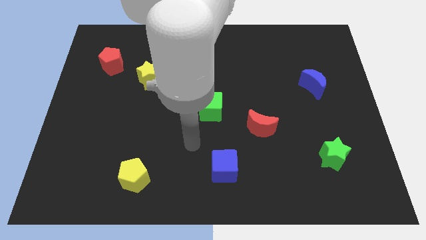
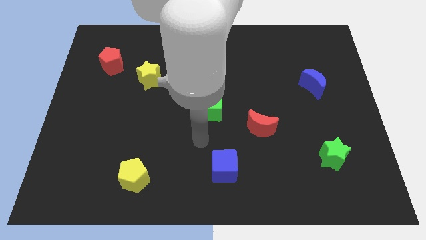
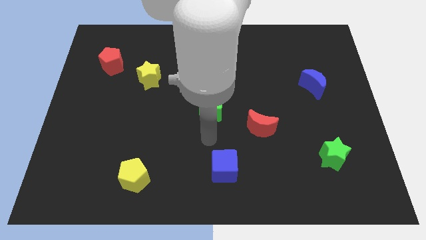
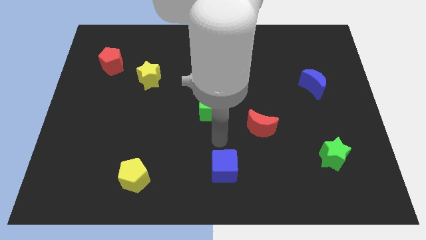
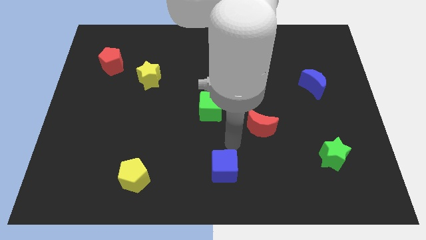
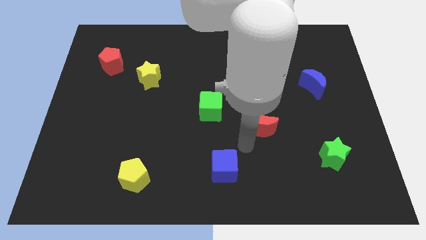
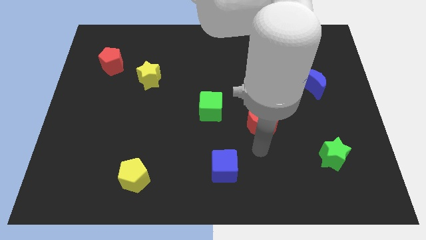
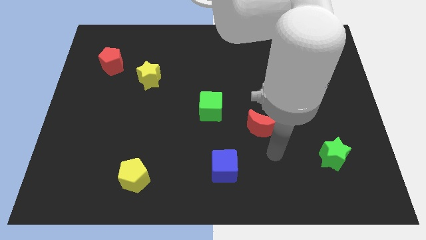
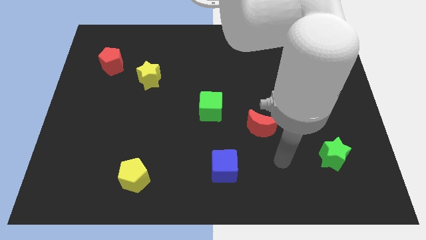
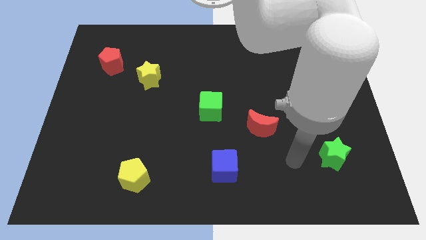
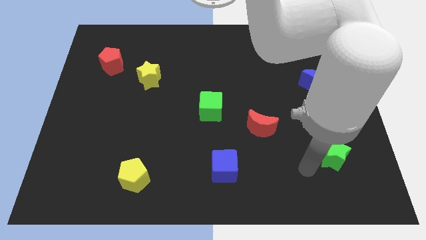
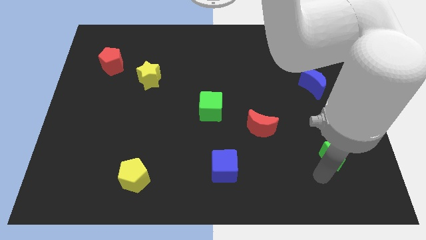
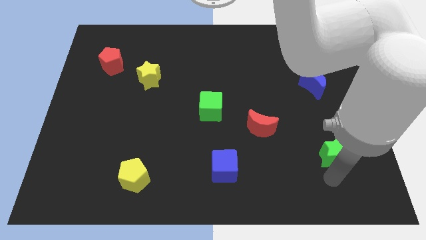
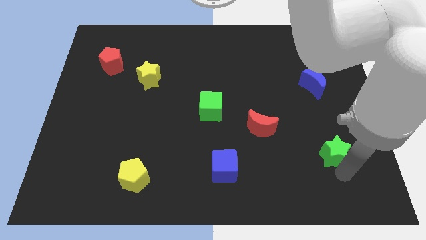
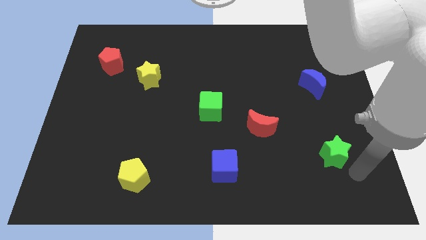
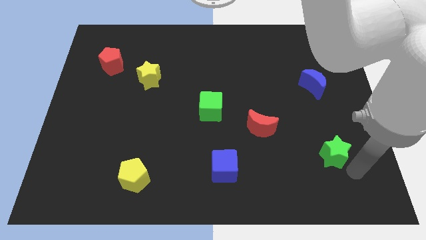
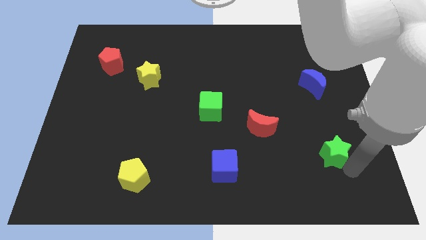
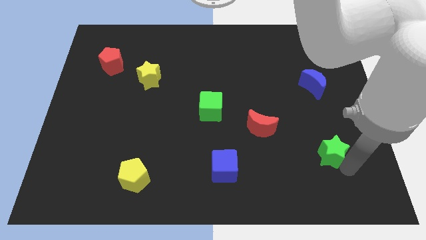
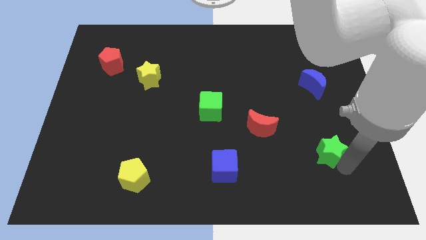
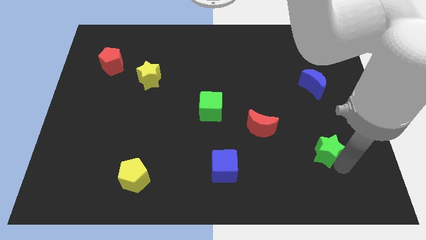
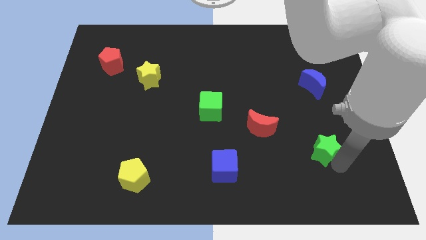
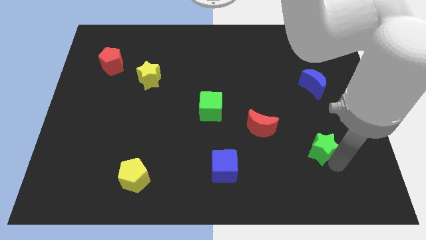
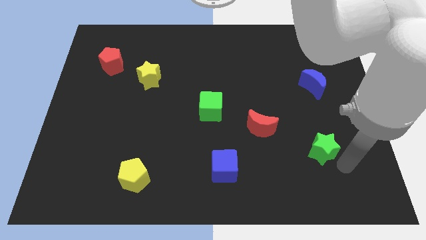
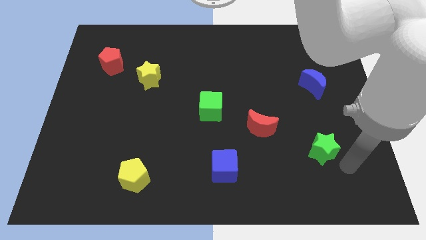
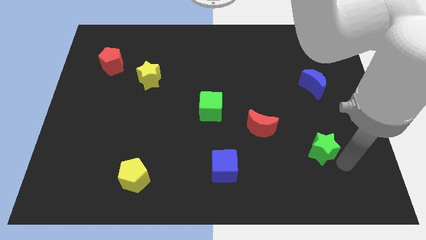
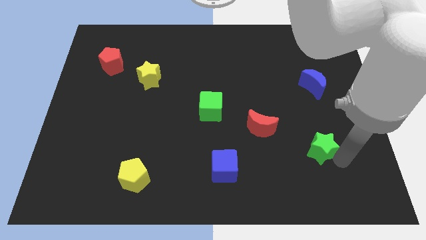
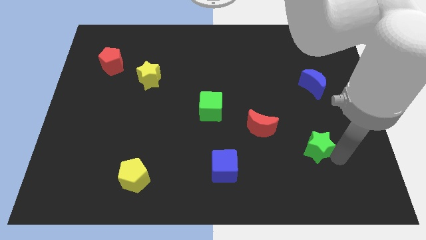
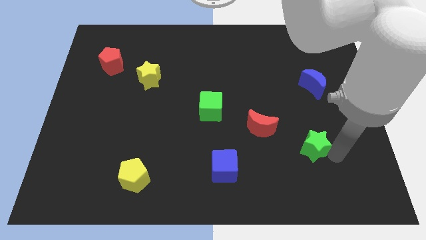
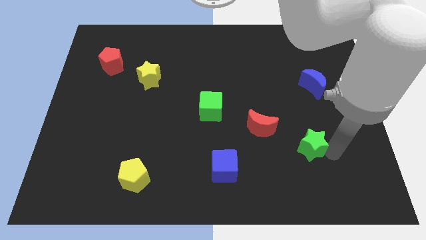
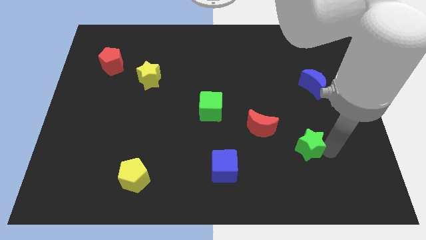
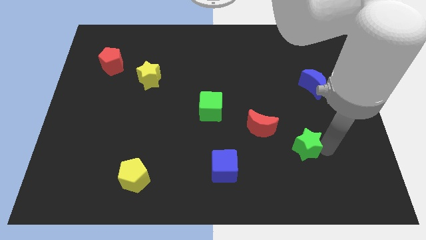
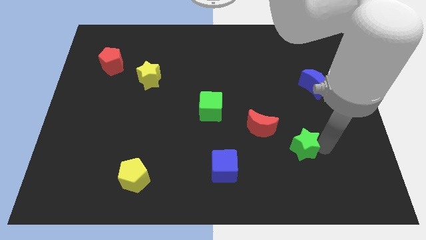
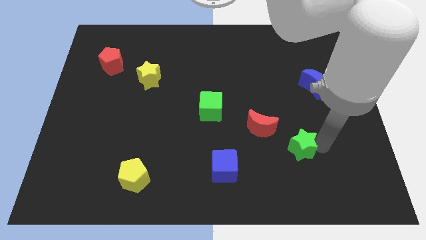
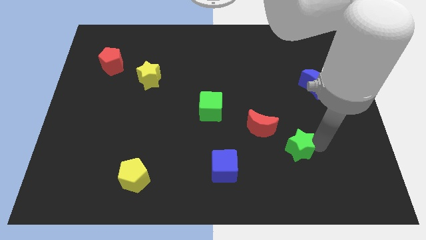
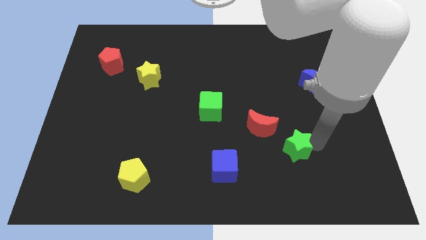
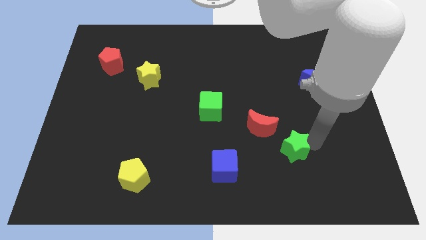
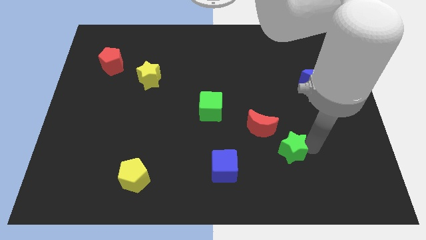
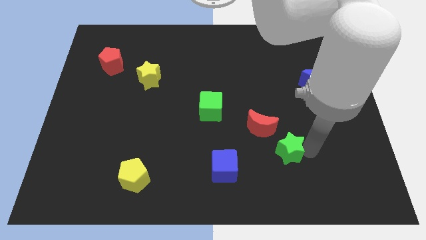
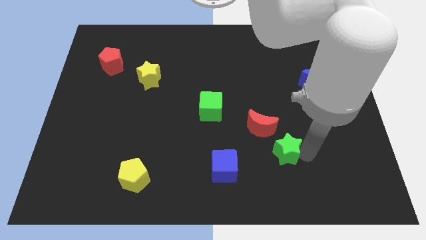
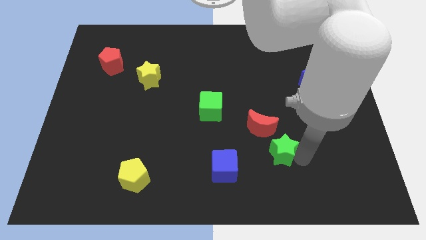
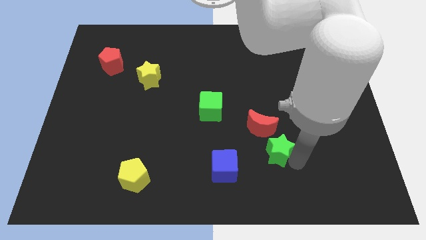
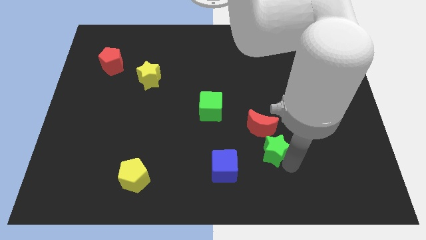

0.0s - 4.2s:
slide the green star diagonally up and to the left somewhat

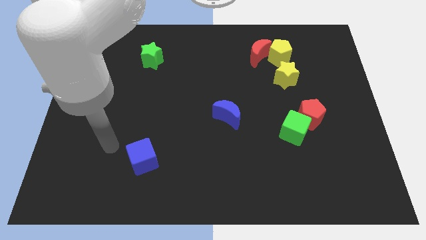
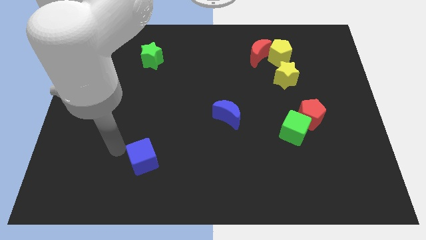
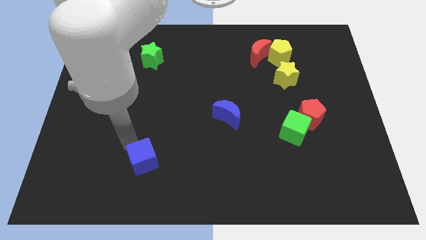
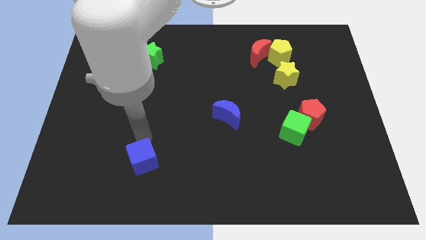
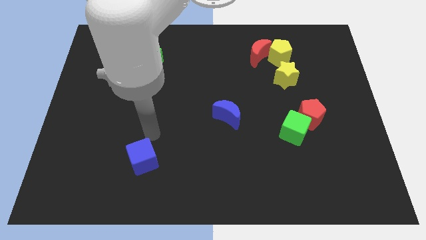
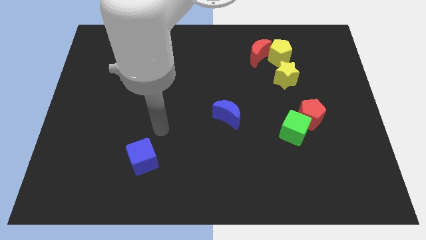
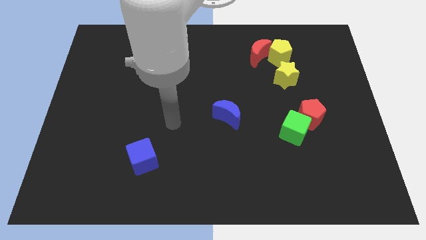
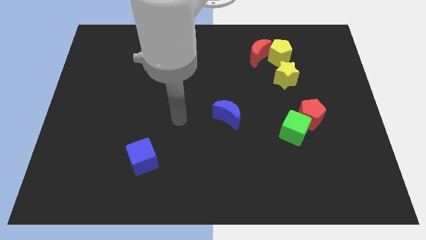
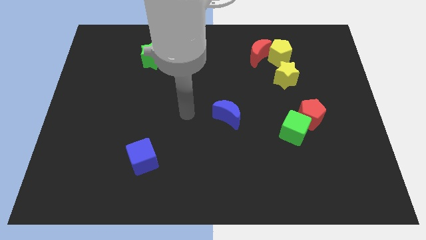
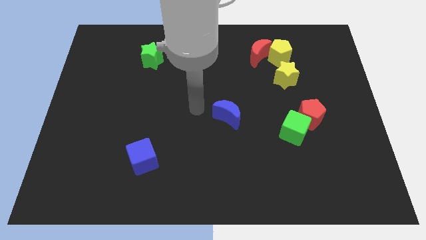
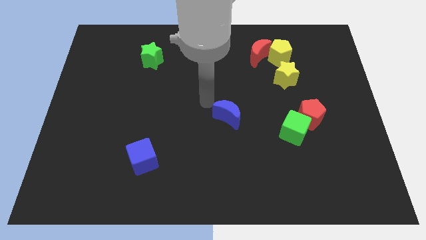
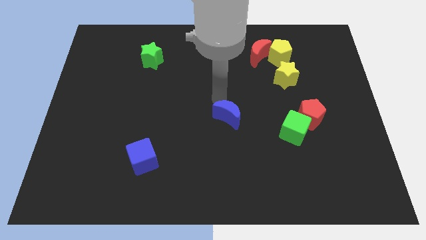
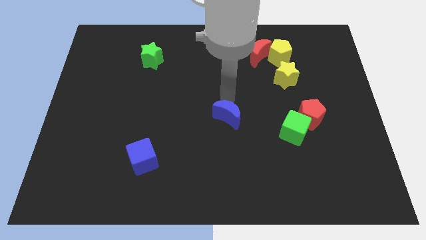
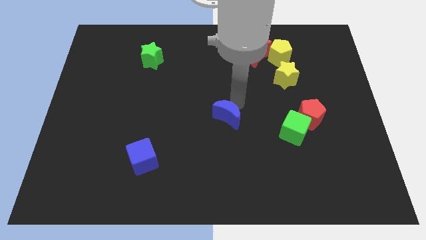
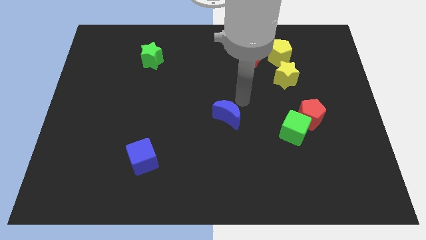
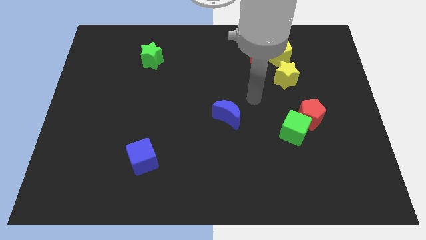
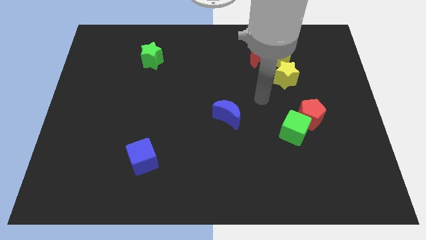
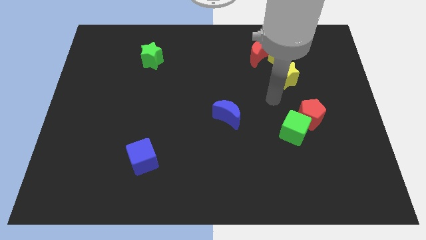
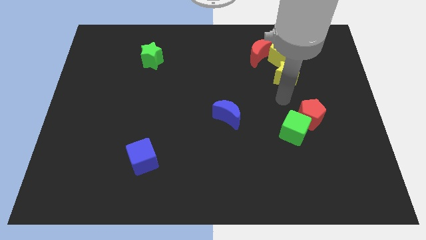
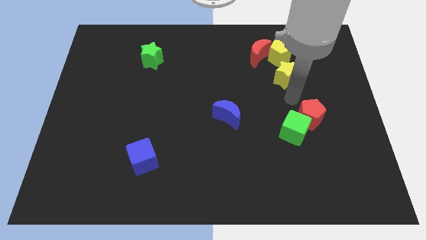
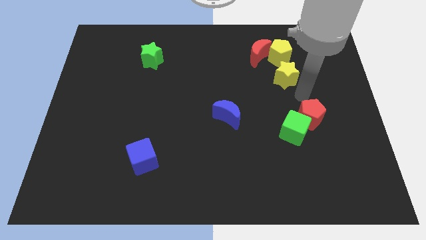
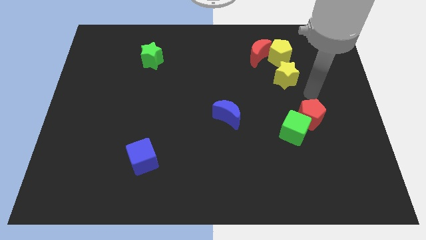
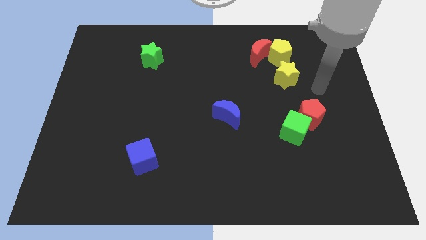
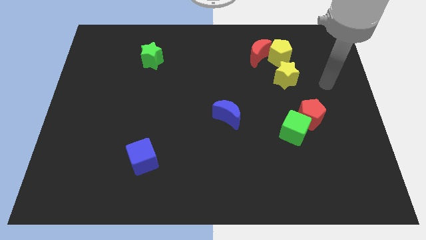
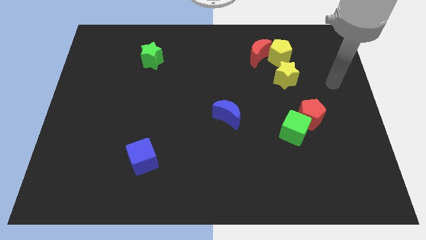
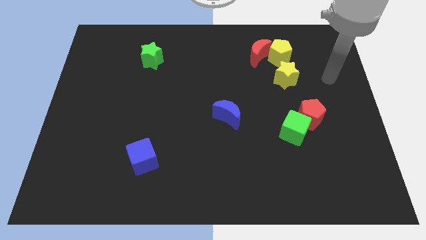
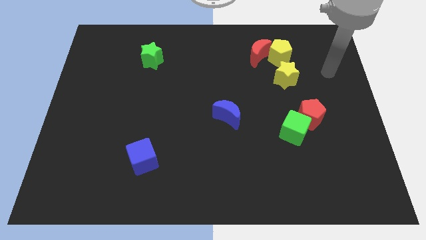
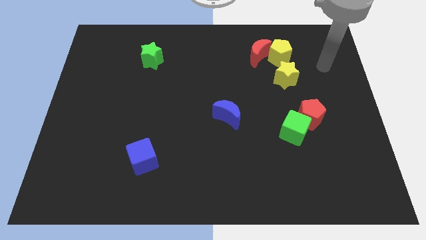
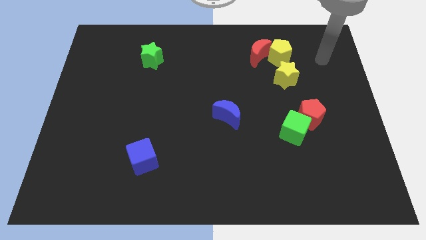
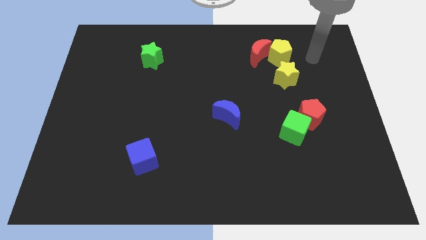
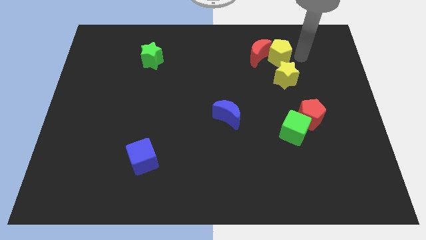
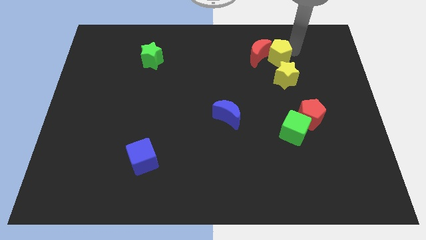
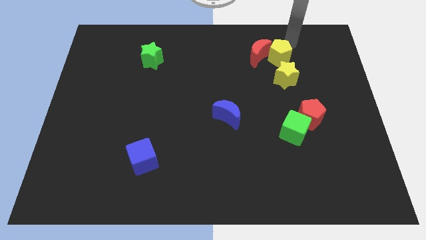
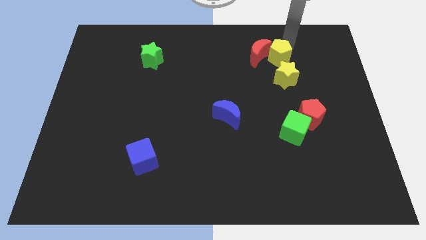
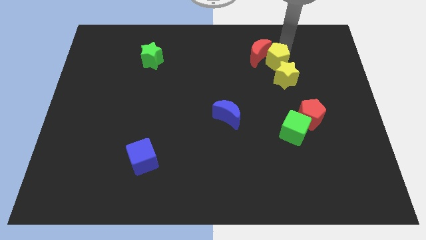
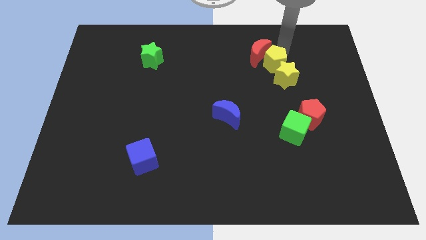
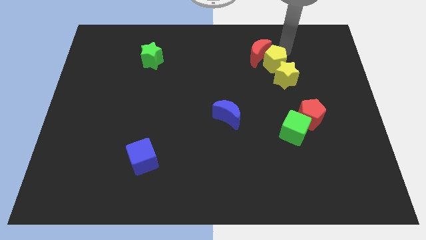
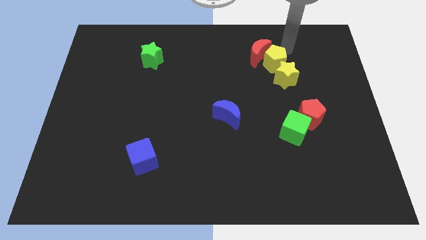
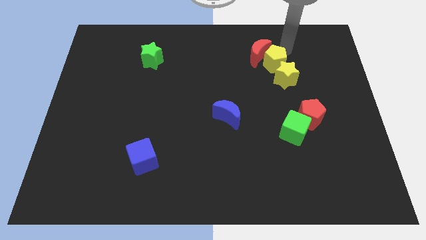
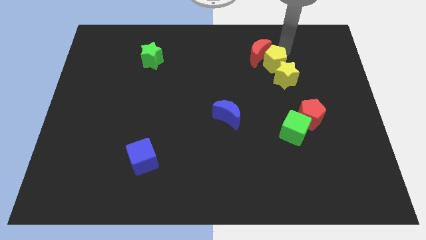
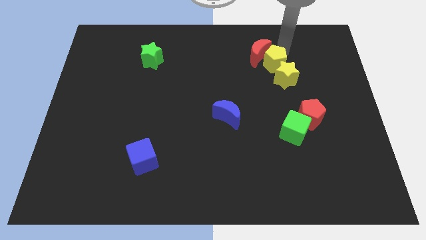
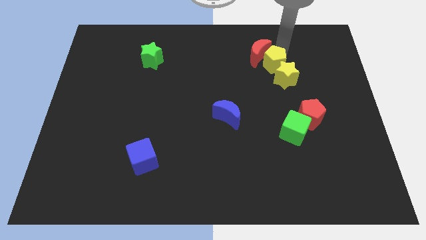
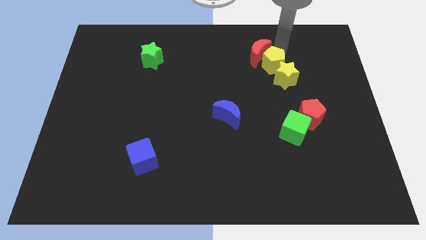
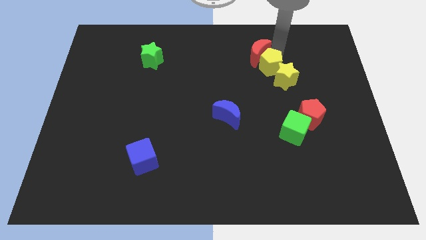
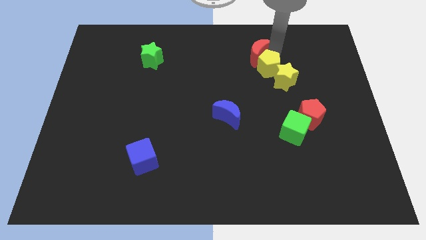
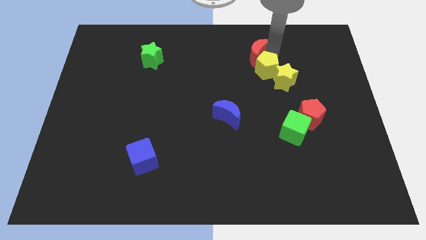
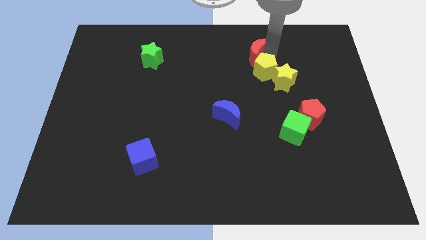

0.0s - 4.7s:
slightly move the yellow pentagon diagonally downwards and to the left
